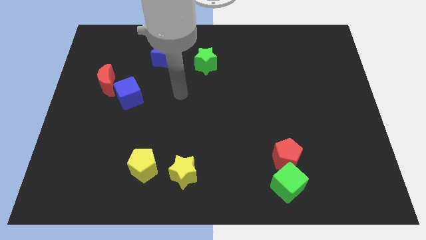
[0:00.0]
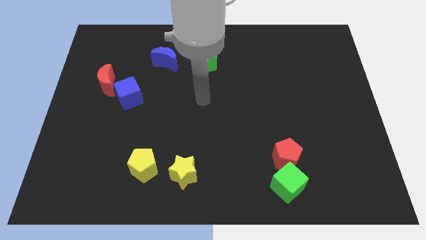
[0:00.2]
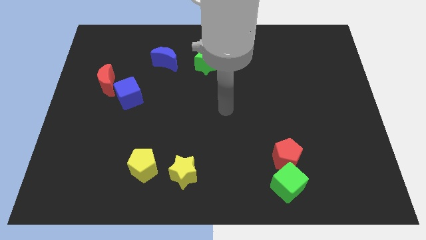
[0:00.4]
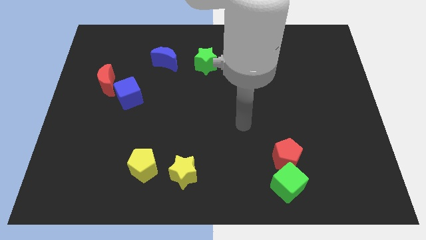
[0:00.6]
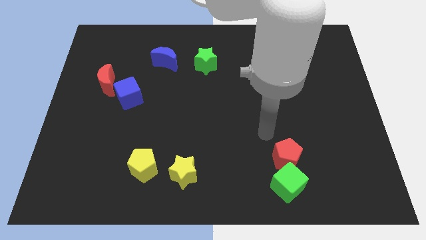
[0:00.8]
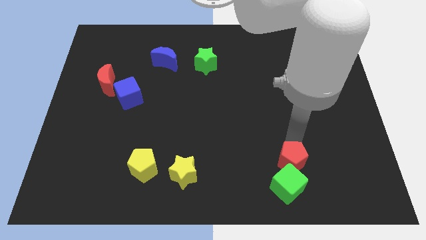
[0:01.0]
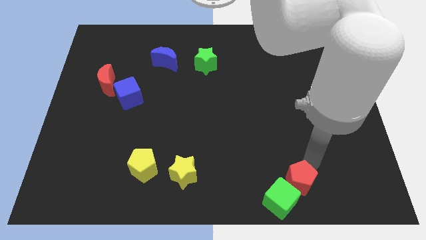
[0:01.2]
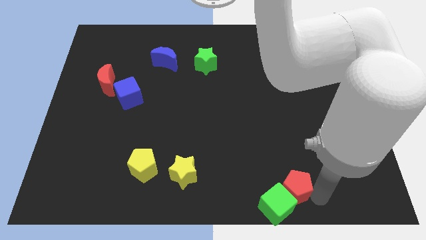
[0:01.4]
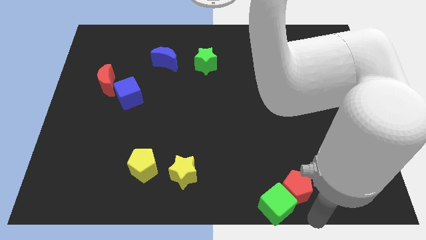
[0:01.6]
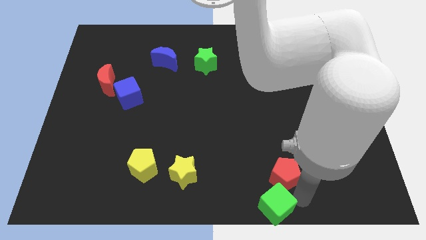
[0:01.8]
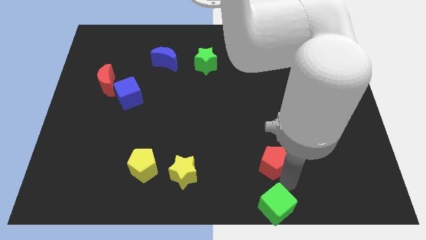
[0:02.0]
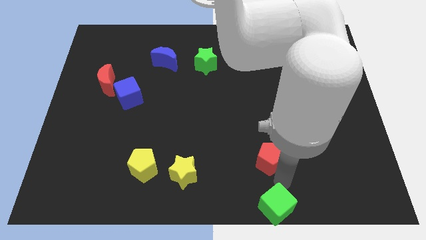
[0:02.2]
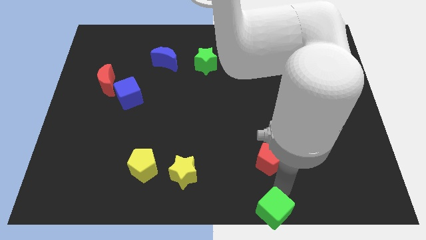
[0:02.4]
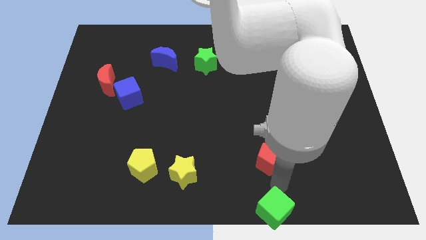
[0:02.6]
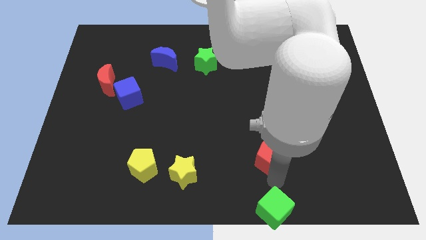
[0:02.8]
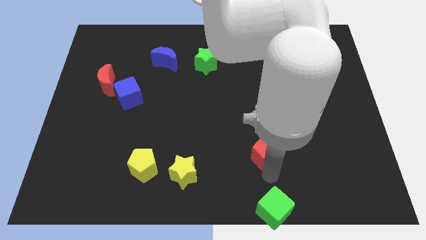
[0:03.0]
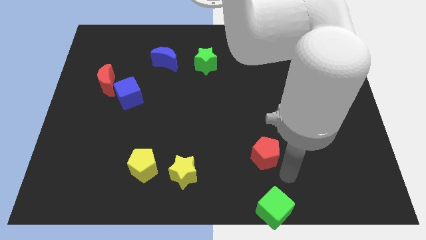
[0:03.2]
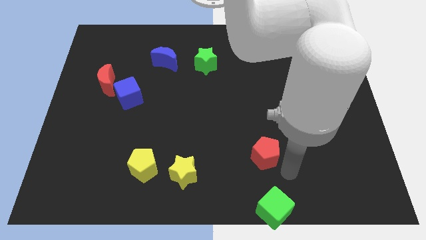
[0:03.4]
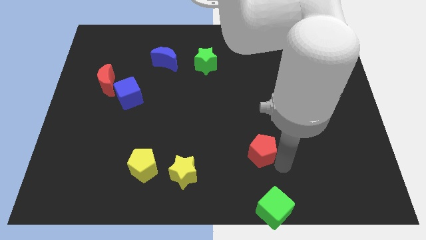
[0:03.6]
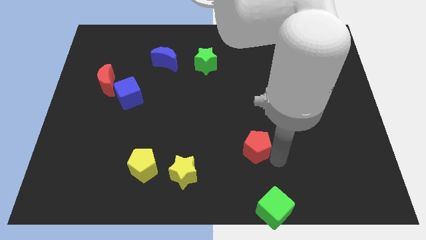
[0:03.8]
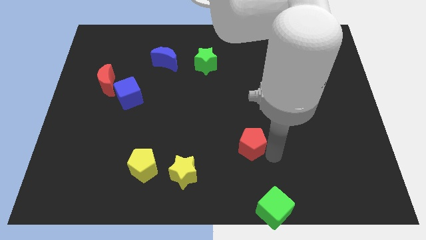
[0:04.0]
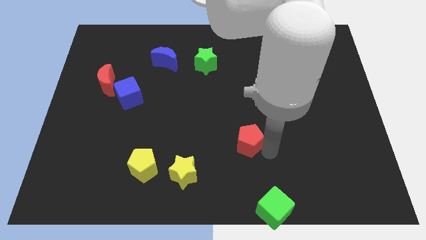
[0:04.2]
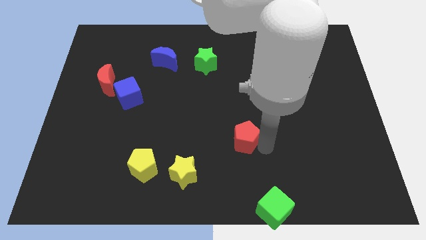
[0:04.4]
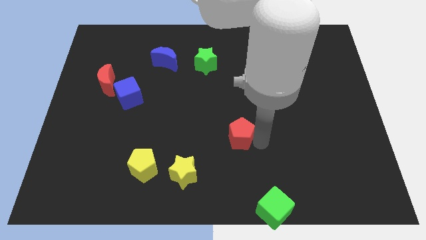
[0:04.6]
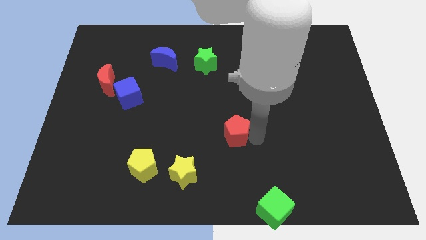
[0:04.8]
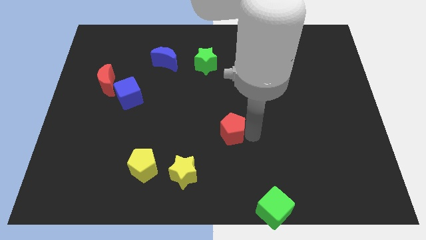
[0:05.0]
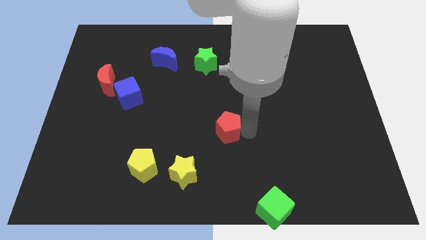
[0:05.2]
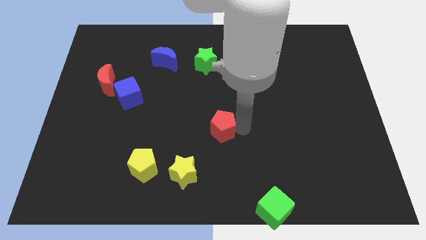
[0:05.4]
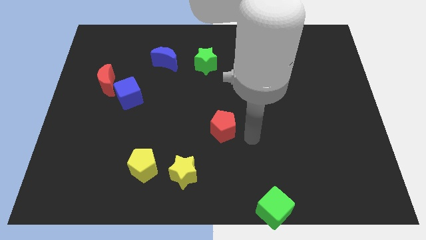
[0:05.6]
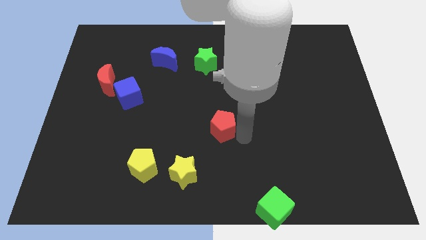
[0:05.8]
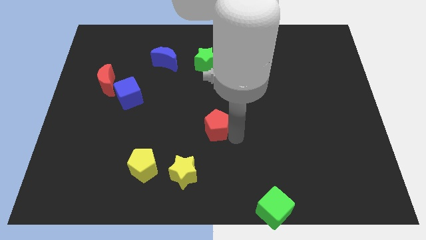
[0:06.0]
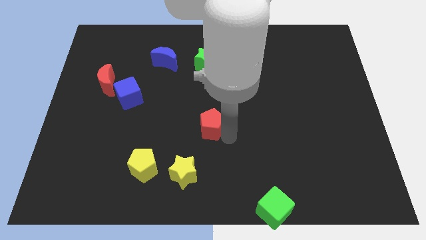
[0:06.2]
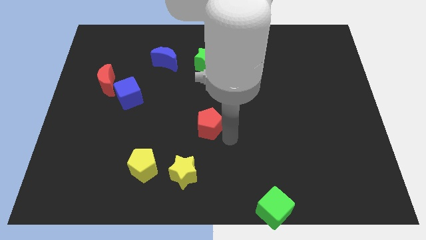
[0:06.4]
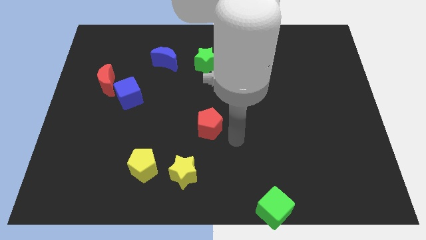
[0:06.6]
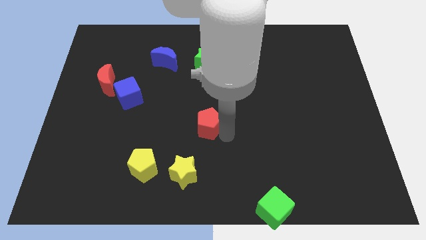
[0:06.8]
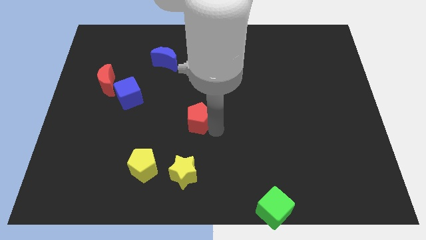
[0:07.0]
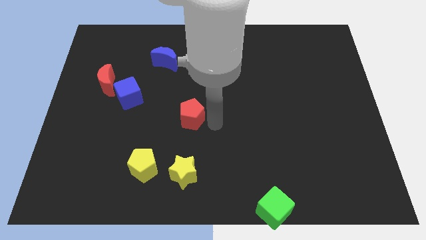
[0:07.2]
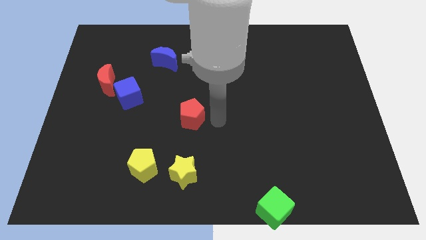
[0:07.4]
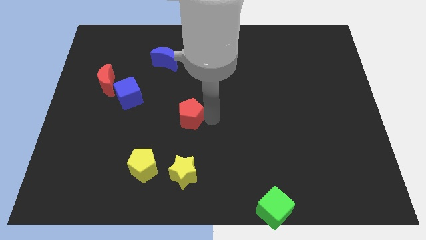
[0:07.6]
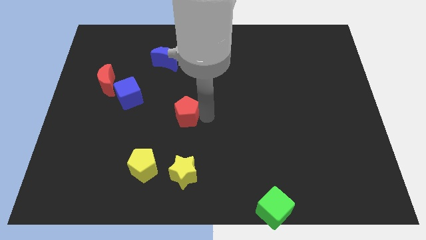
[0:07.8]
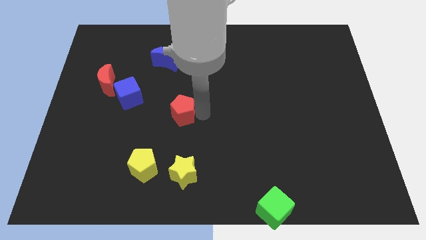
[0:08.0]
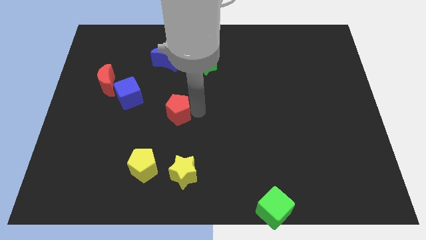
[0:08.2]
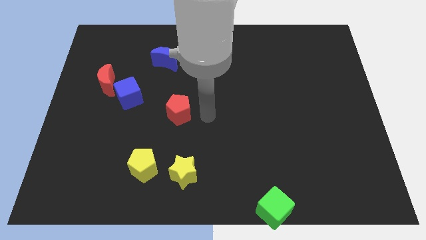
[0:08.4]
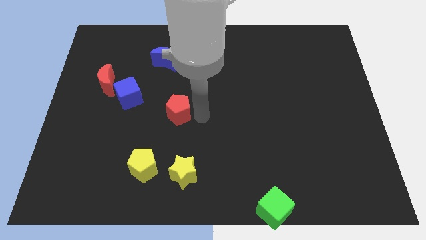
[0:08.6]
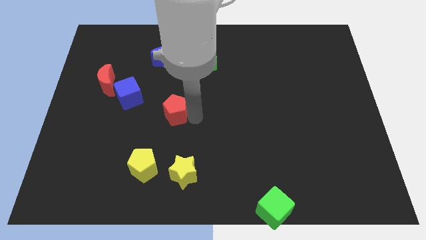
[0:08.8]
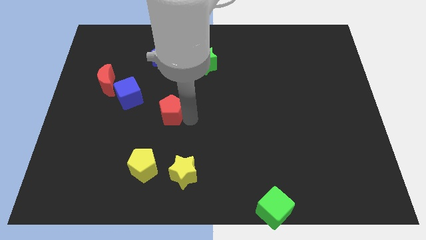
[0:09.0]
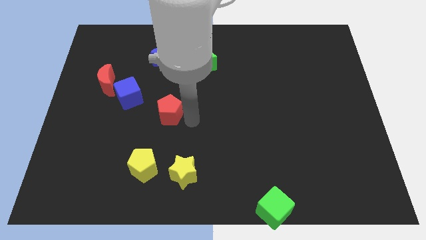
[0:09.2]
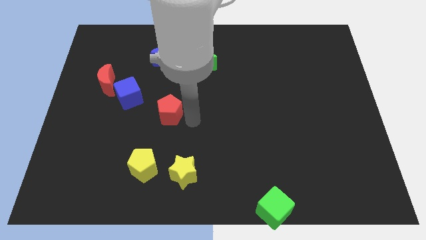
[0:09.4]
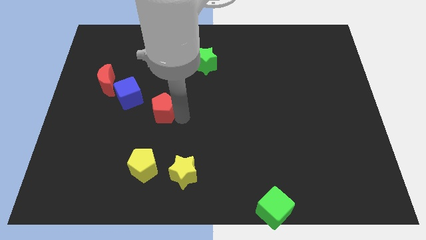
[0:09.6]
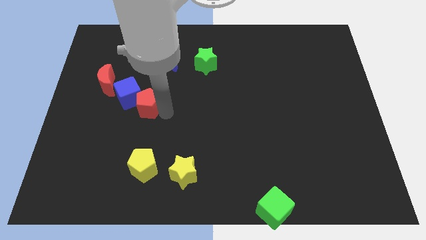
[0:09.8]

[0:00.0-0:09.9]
slide the red pentagon close to the blue cube

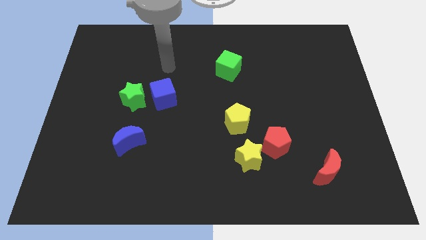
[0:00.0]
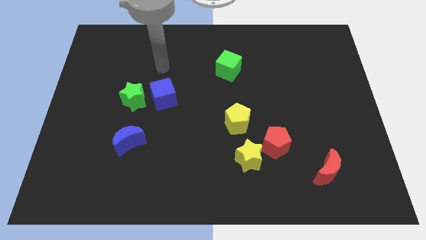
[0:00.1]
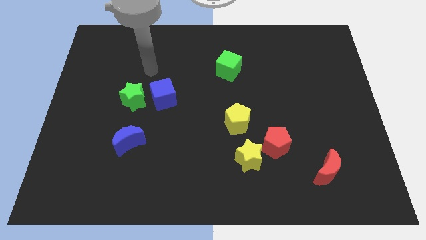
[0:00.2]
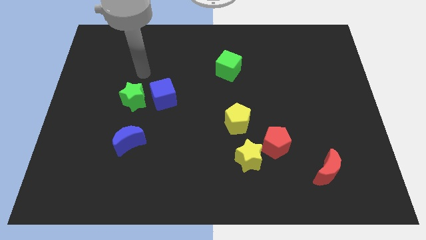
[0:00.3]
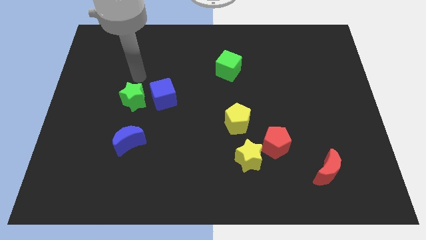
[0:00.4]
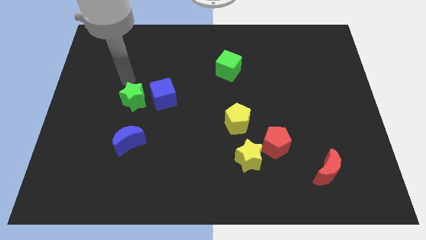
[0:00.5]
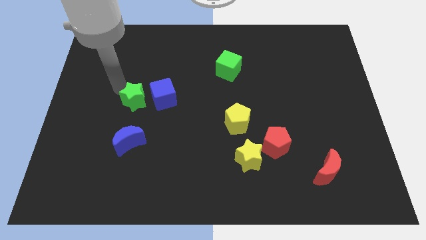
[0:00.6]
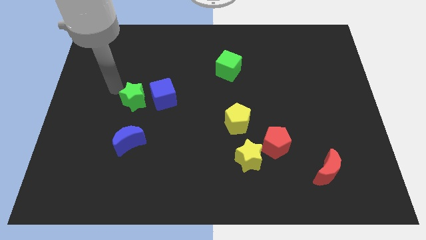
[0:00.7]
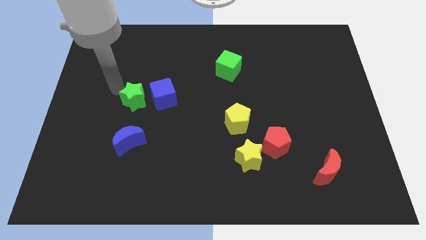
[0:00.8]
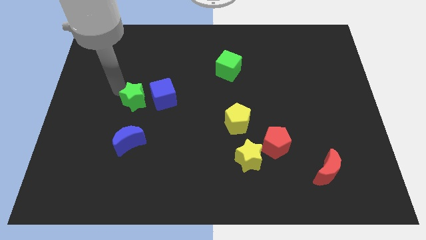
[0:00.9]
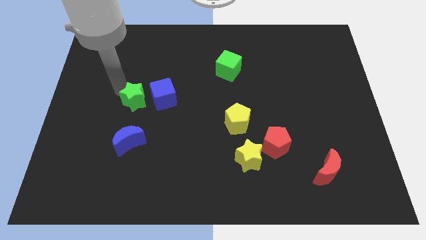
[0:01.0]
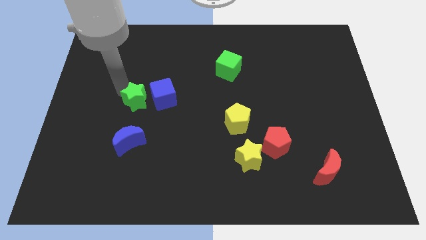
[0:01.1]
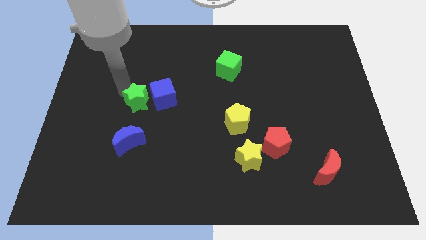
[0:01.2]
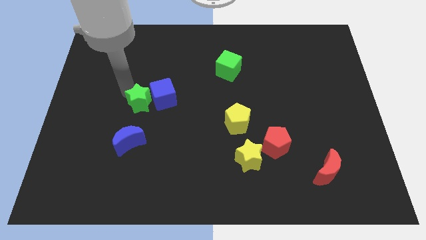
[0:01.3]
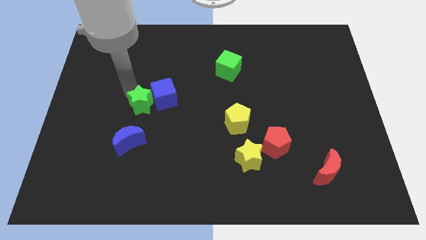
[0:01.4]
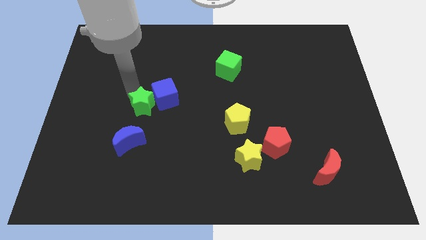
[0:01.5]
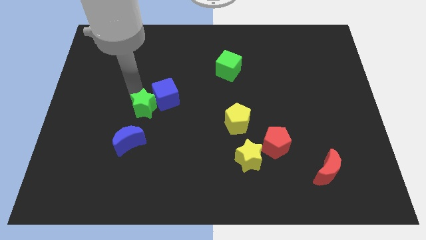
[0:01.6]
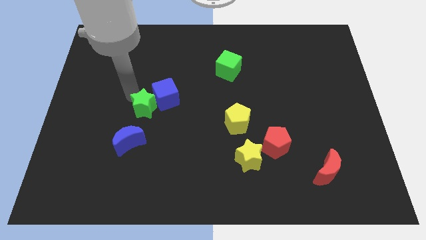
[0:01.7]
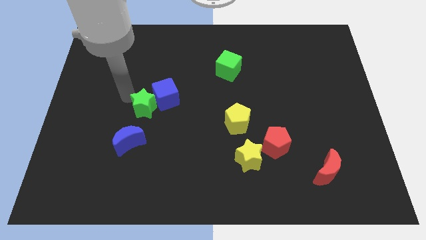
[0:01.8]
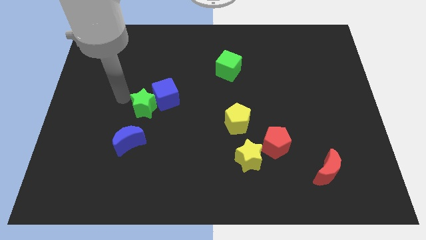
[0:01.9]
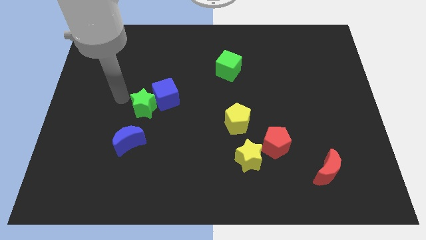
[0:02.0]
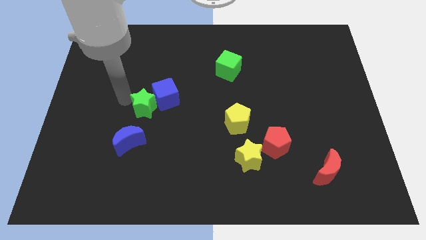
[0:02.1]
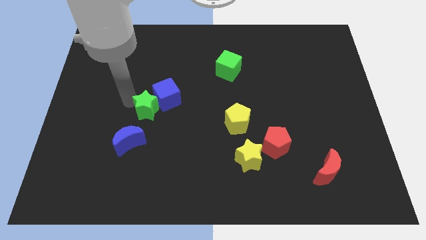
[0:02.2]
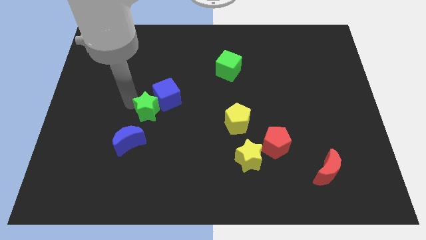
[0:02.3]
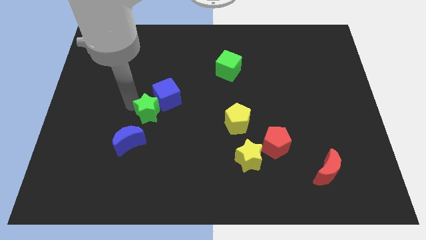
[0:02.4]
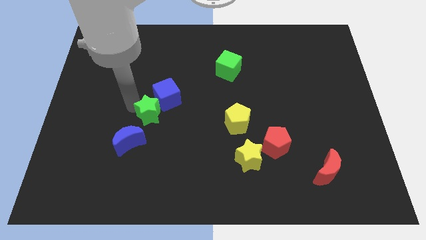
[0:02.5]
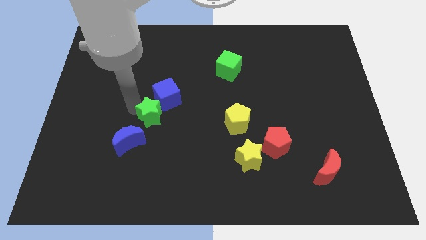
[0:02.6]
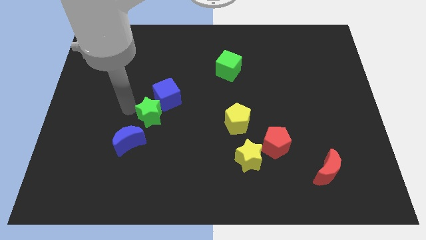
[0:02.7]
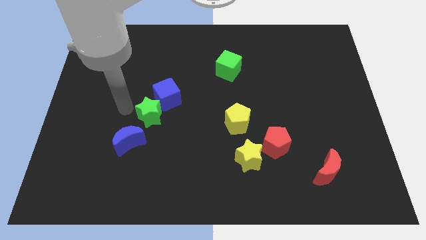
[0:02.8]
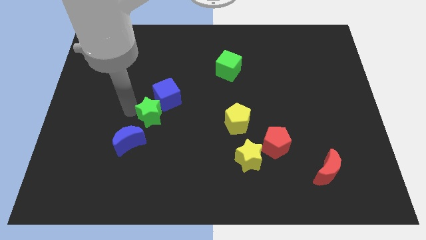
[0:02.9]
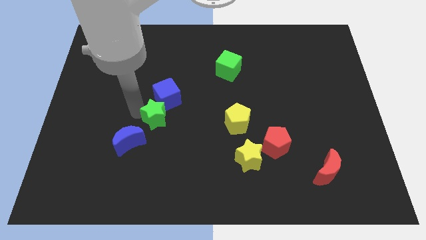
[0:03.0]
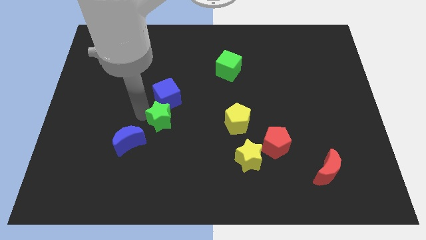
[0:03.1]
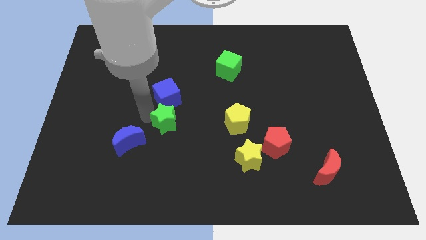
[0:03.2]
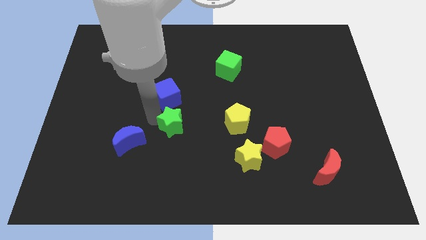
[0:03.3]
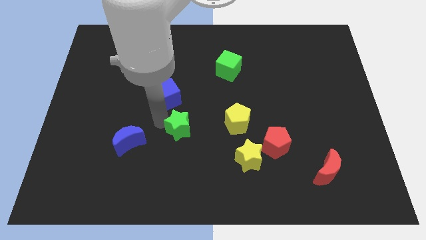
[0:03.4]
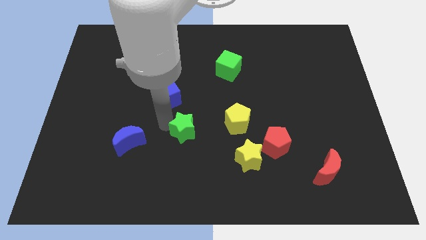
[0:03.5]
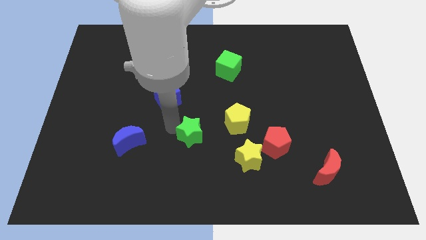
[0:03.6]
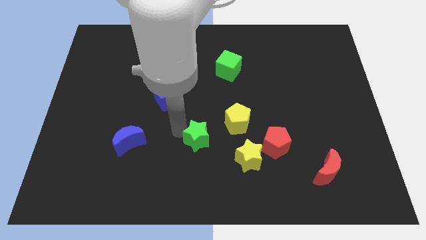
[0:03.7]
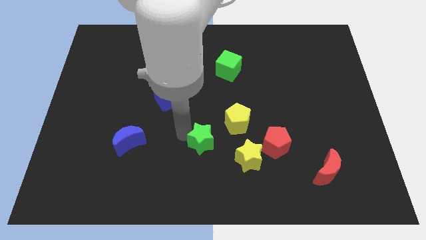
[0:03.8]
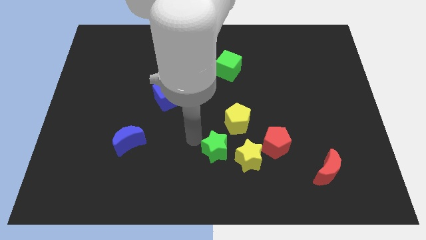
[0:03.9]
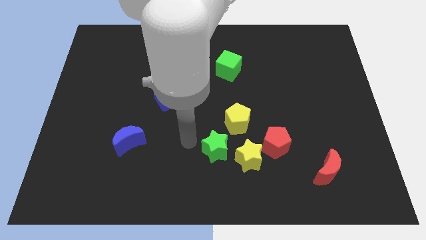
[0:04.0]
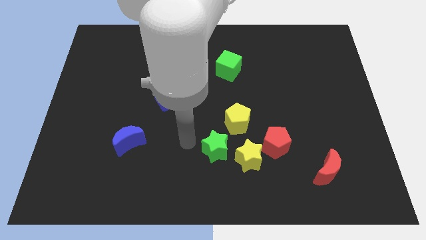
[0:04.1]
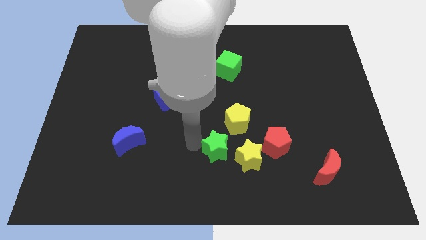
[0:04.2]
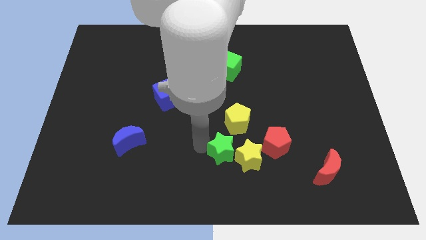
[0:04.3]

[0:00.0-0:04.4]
slide the green star towards the yellow star
